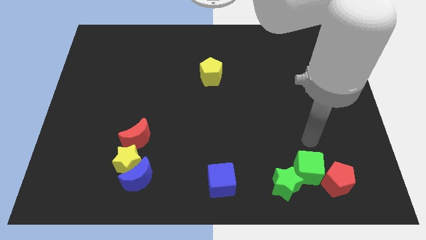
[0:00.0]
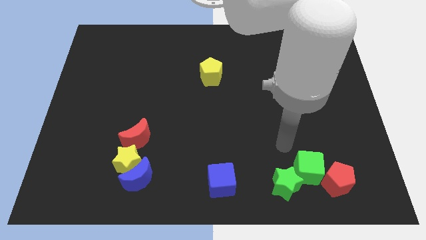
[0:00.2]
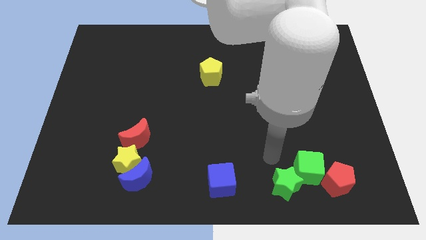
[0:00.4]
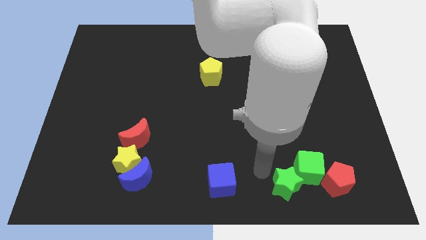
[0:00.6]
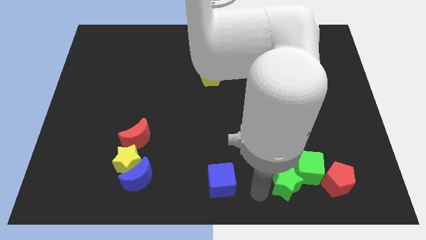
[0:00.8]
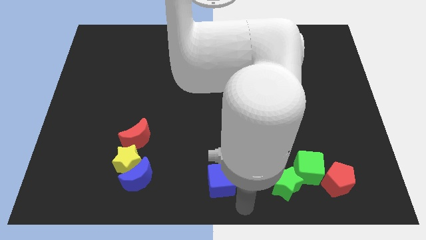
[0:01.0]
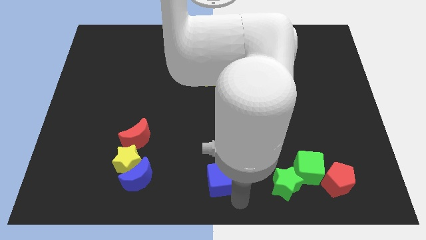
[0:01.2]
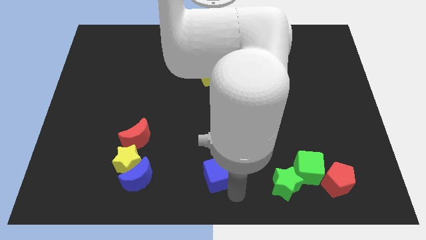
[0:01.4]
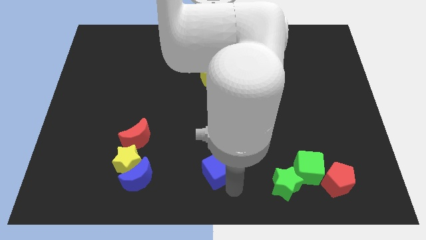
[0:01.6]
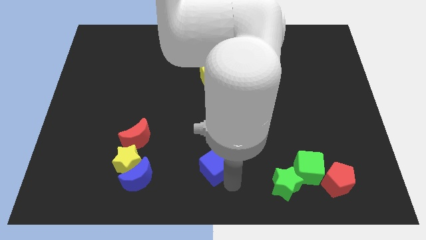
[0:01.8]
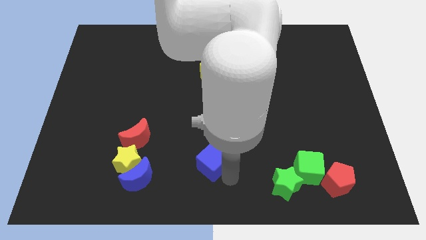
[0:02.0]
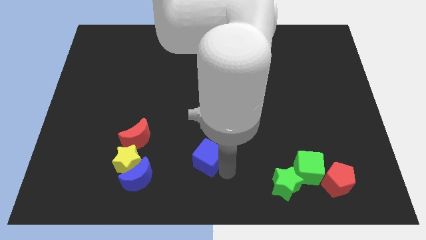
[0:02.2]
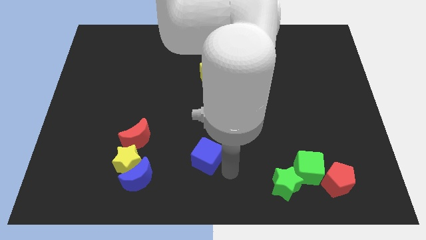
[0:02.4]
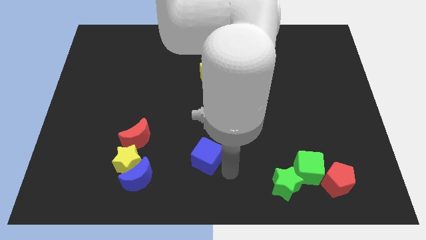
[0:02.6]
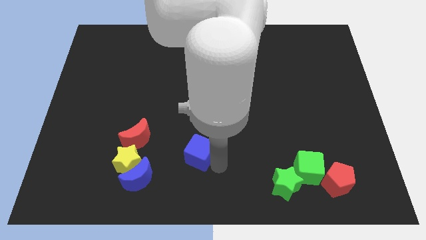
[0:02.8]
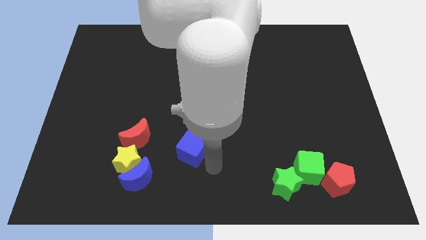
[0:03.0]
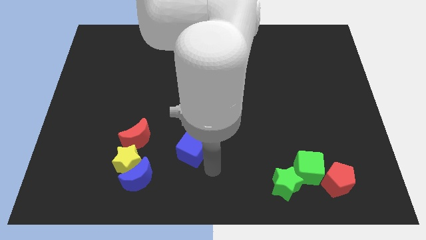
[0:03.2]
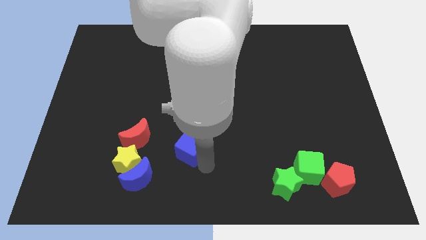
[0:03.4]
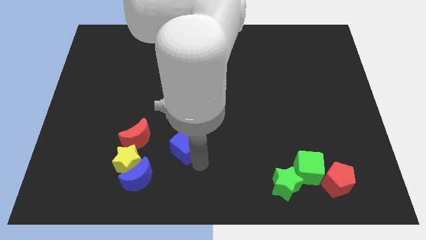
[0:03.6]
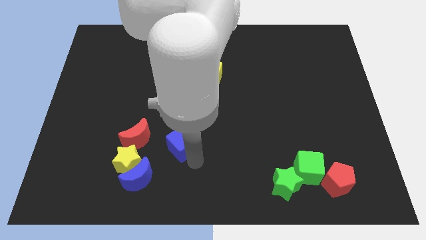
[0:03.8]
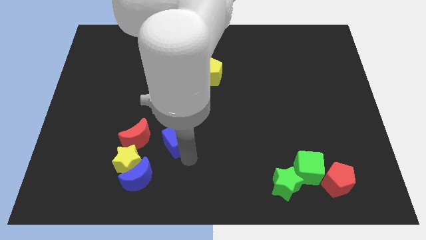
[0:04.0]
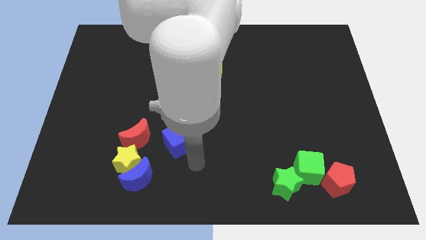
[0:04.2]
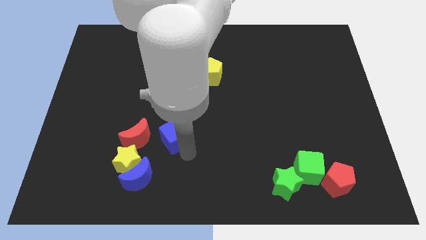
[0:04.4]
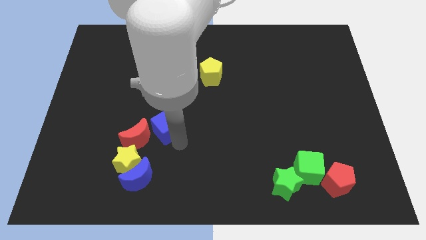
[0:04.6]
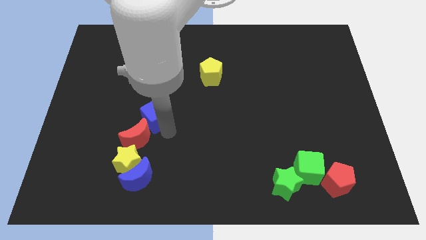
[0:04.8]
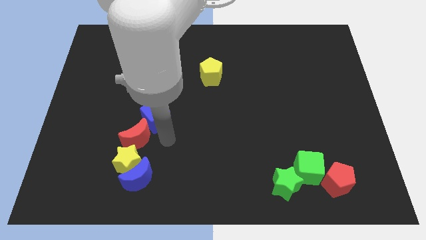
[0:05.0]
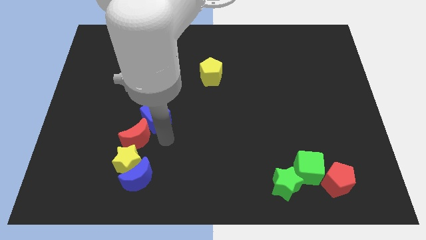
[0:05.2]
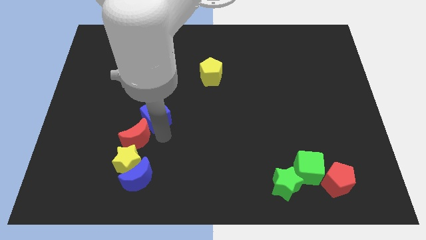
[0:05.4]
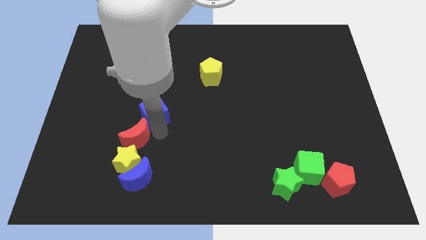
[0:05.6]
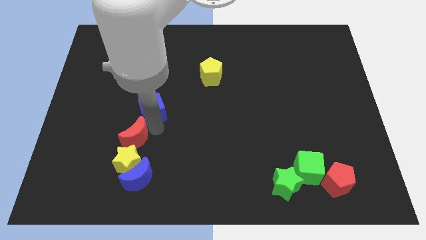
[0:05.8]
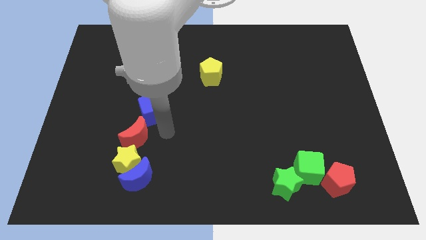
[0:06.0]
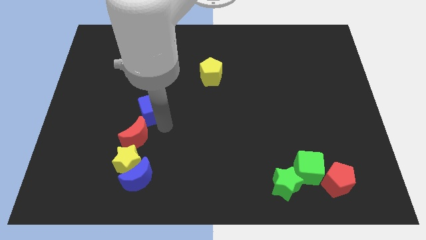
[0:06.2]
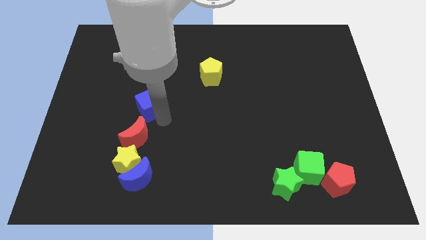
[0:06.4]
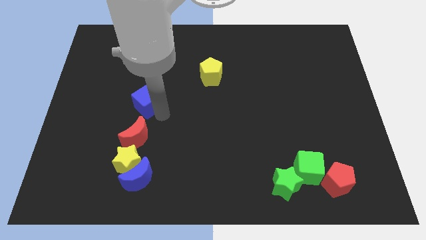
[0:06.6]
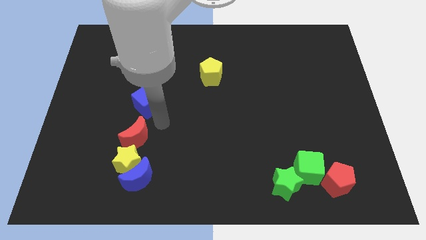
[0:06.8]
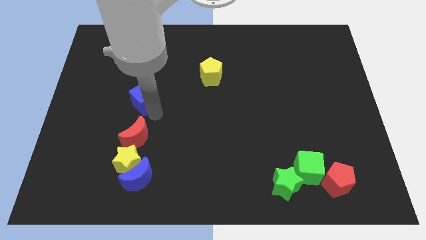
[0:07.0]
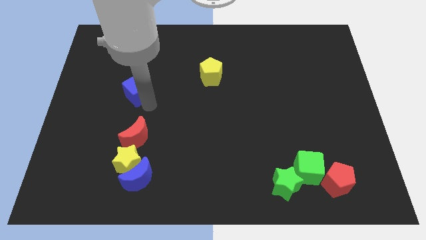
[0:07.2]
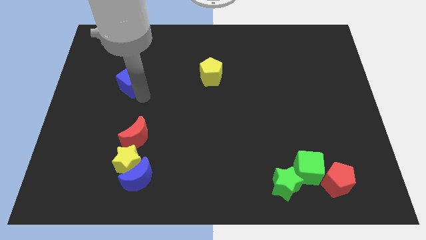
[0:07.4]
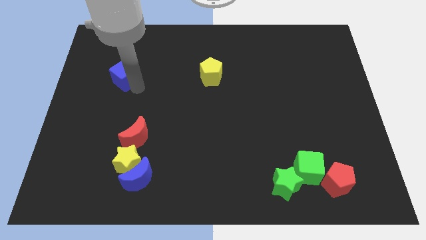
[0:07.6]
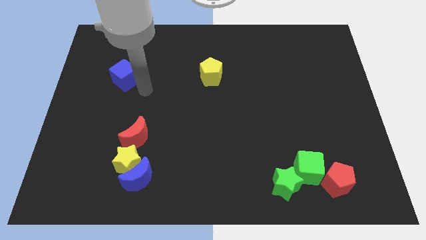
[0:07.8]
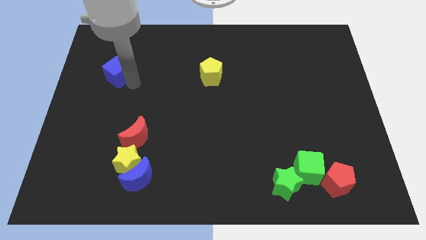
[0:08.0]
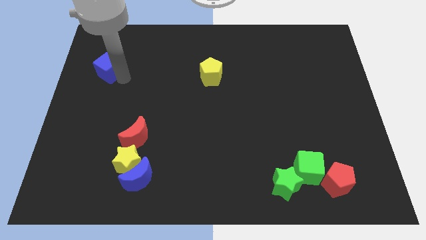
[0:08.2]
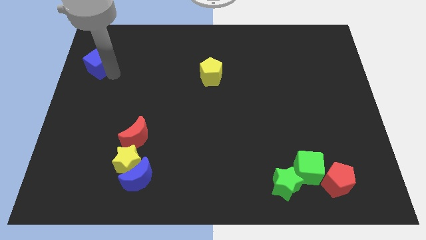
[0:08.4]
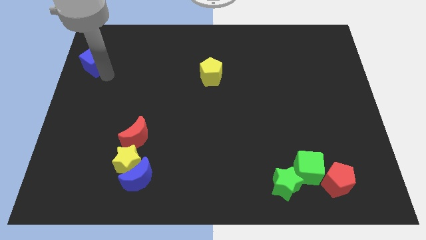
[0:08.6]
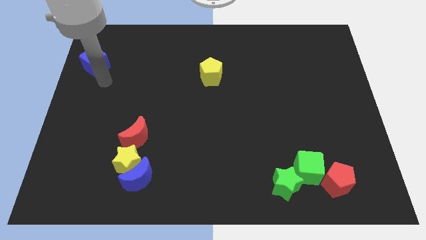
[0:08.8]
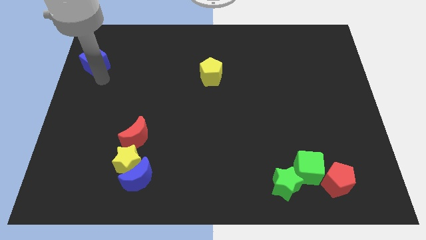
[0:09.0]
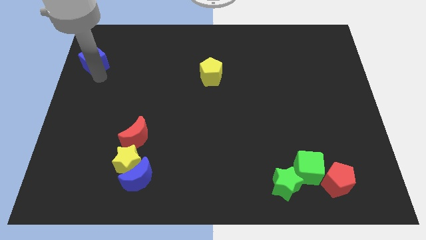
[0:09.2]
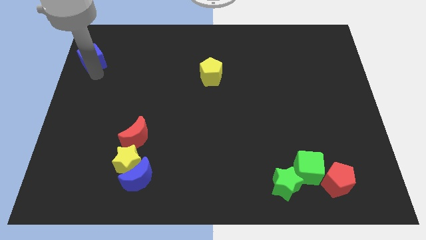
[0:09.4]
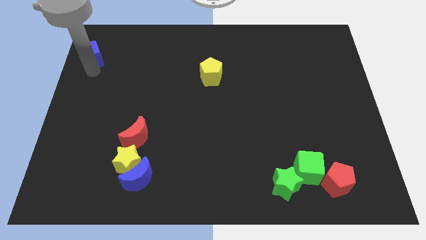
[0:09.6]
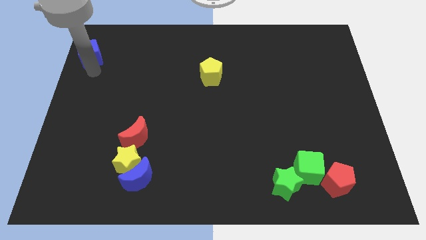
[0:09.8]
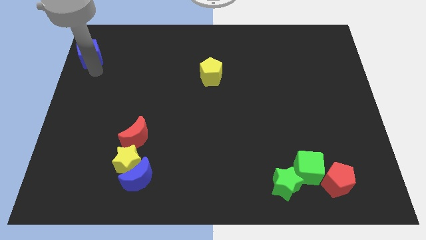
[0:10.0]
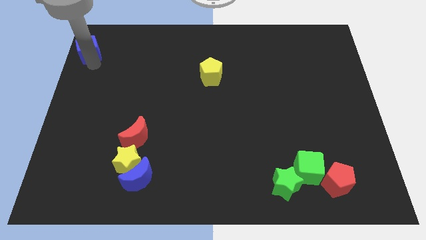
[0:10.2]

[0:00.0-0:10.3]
push the blue cube to the top left corner

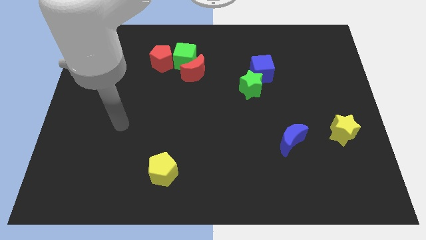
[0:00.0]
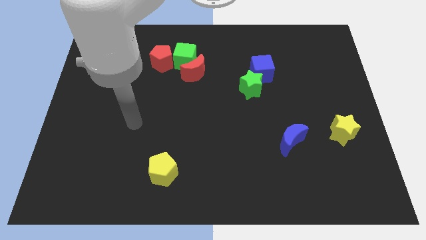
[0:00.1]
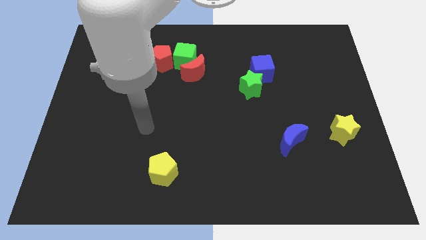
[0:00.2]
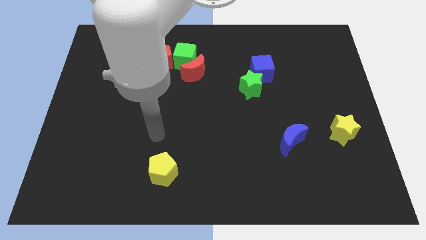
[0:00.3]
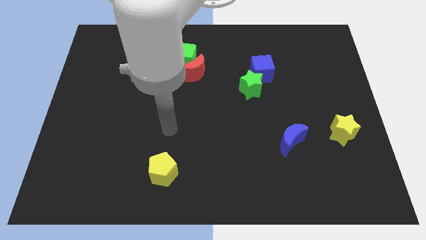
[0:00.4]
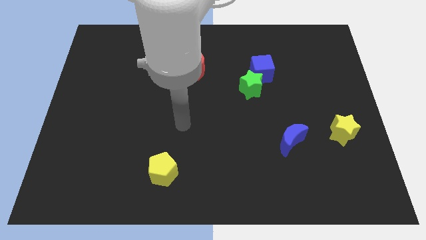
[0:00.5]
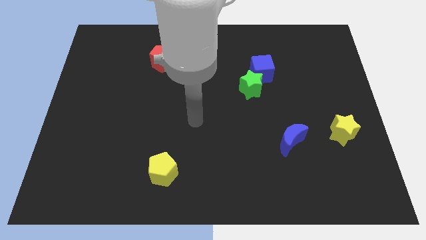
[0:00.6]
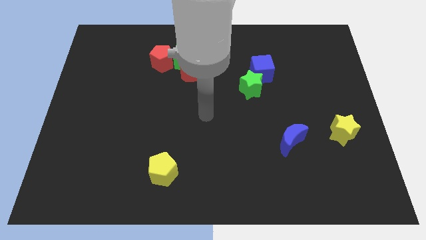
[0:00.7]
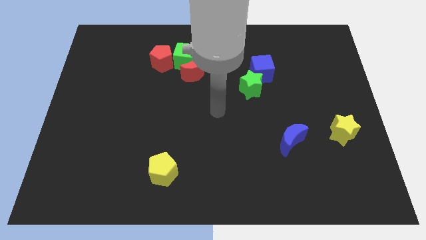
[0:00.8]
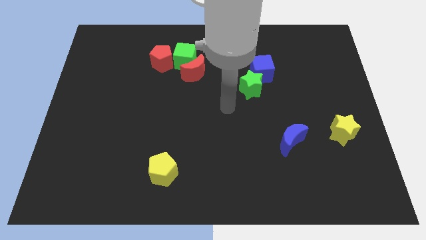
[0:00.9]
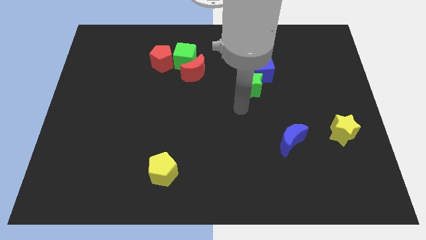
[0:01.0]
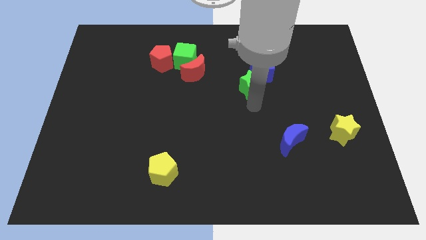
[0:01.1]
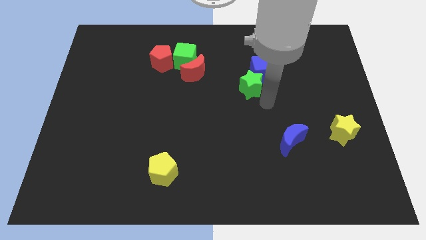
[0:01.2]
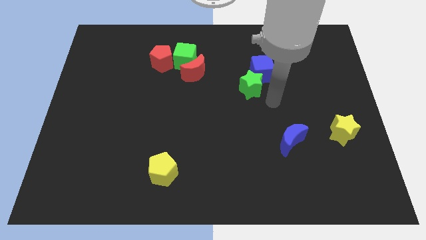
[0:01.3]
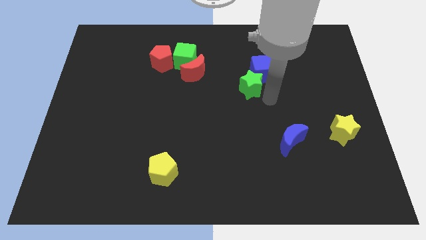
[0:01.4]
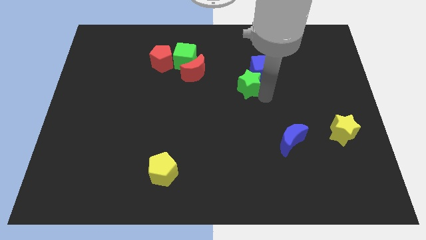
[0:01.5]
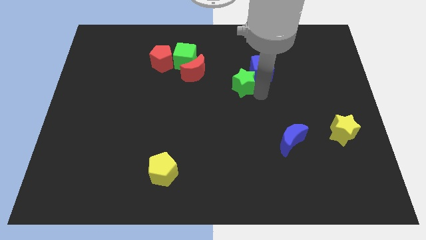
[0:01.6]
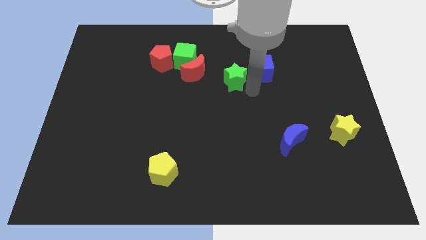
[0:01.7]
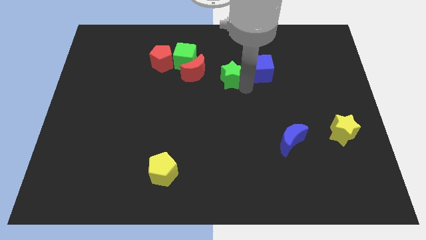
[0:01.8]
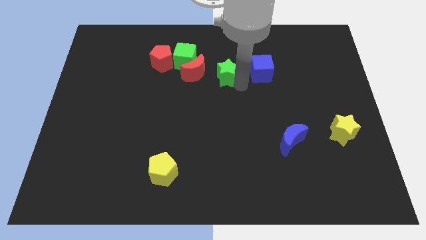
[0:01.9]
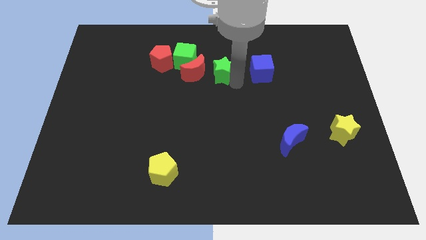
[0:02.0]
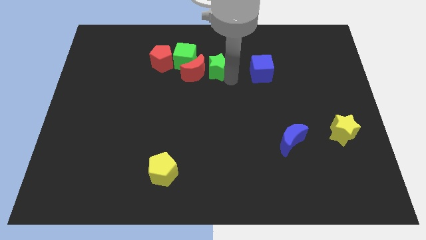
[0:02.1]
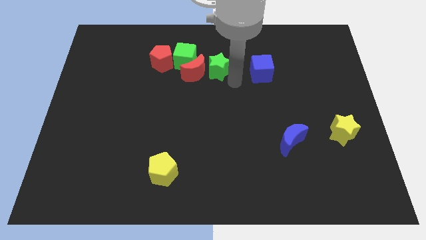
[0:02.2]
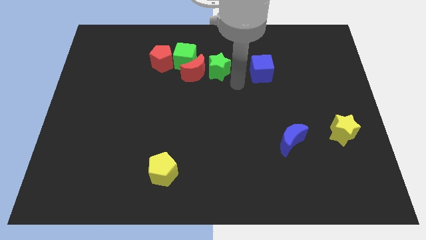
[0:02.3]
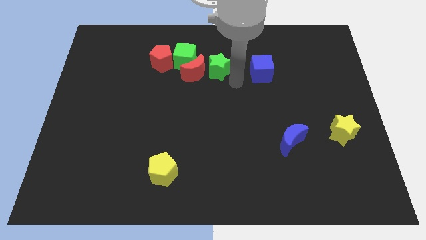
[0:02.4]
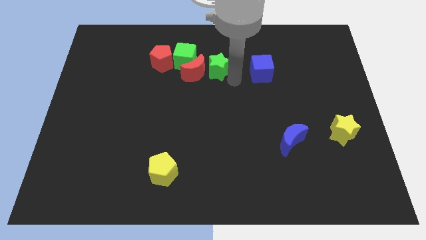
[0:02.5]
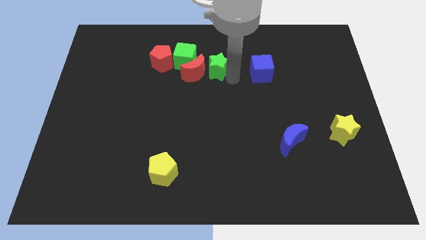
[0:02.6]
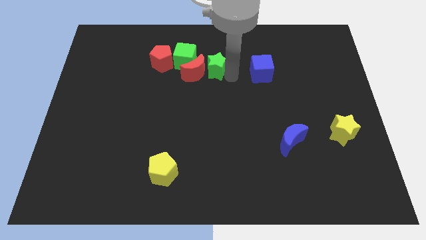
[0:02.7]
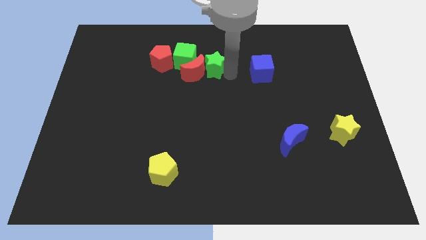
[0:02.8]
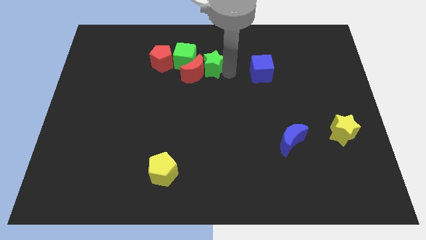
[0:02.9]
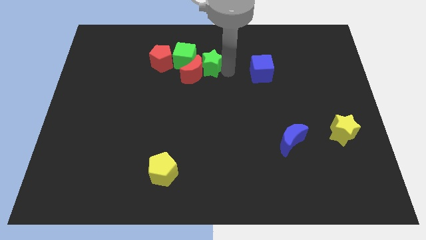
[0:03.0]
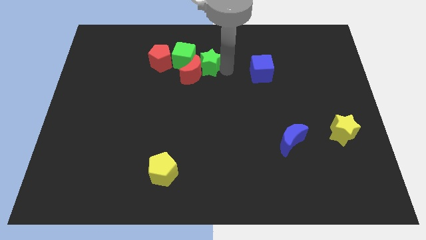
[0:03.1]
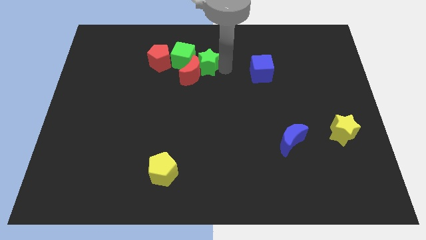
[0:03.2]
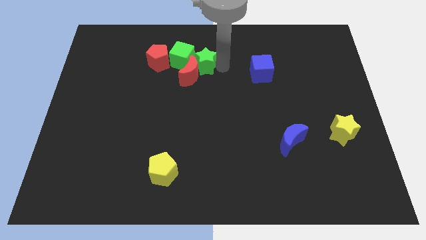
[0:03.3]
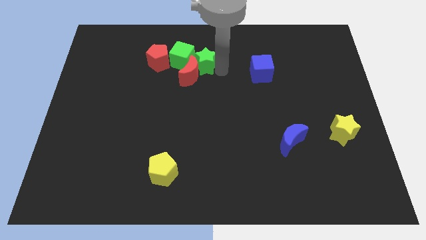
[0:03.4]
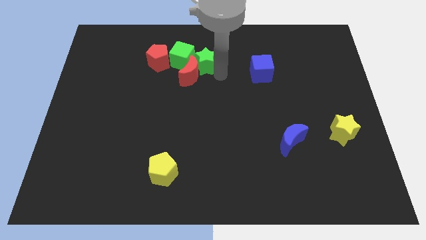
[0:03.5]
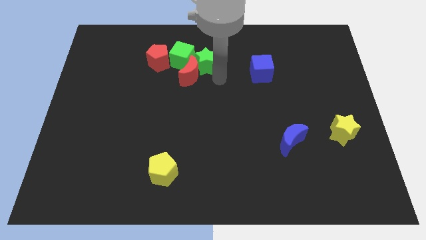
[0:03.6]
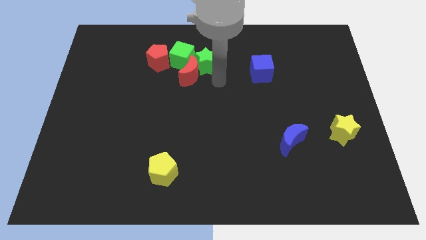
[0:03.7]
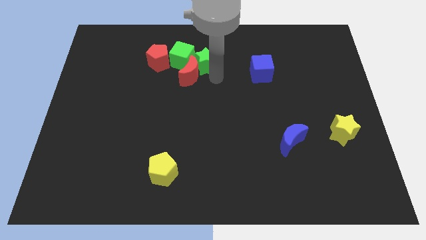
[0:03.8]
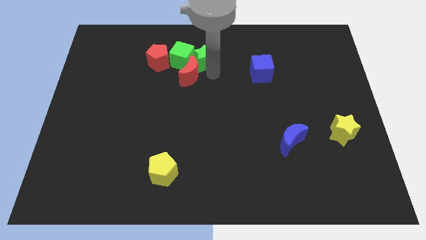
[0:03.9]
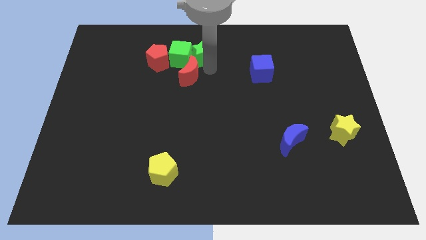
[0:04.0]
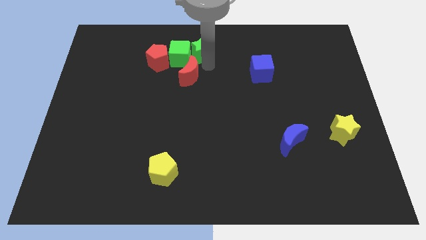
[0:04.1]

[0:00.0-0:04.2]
move the green star to the top
